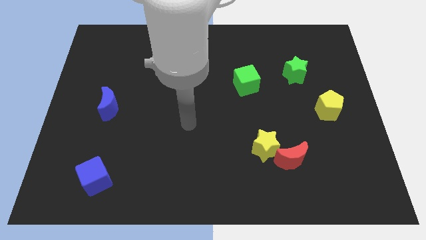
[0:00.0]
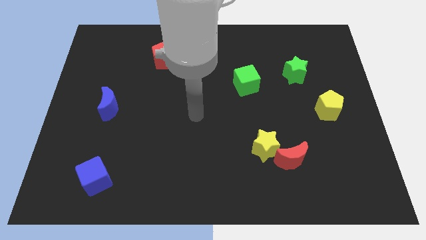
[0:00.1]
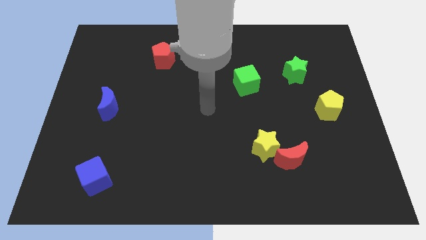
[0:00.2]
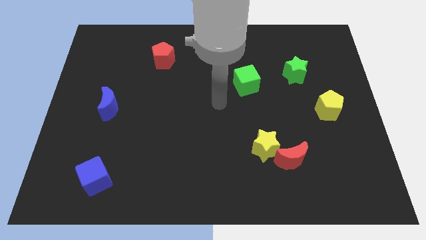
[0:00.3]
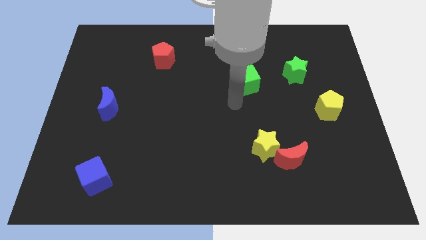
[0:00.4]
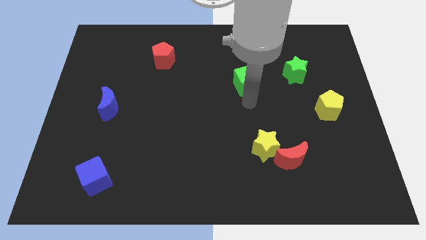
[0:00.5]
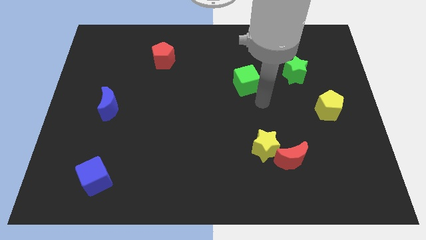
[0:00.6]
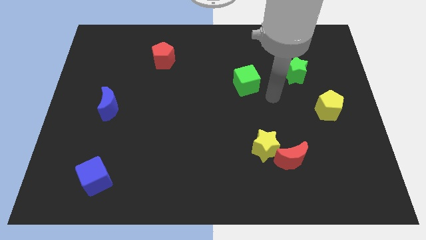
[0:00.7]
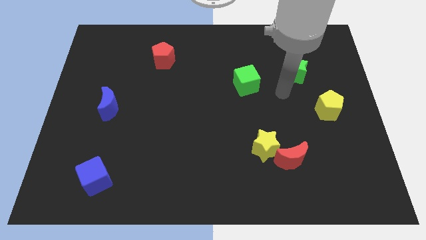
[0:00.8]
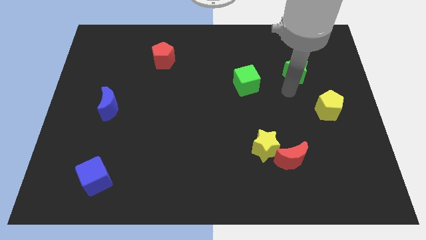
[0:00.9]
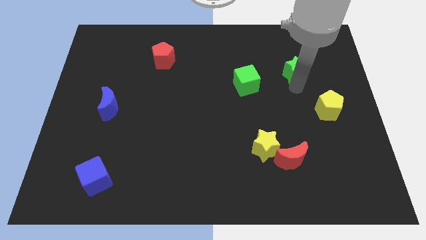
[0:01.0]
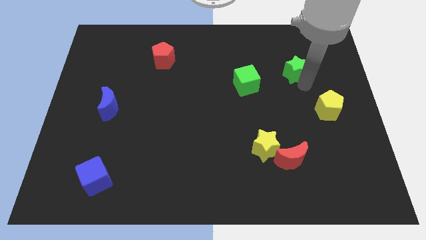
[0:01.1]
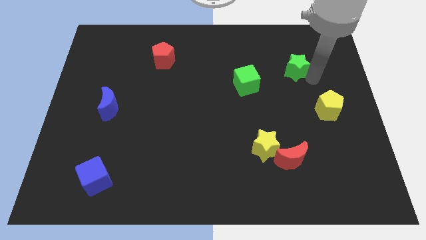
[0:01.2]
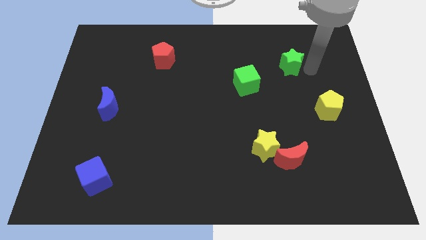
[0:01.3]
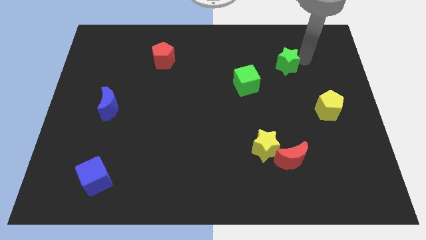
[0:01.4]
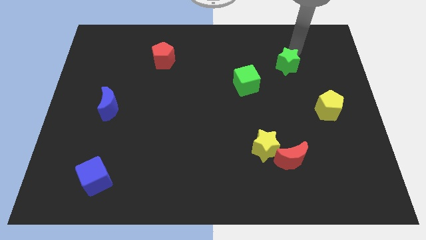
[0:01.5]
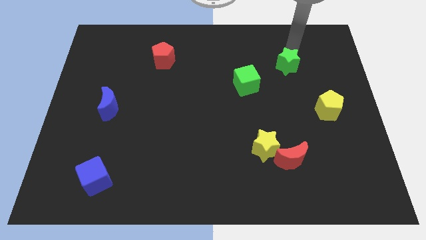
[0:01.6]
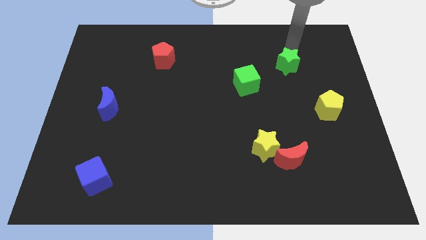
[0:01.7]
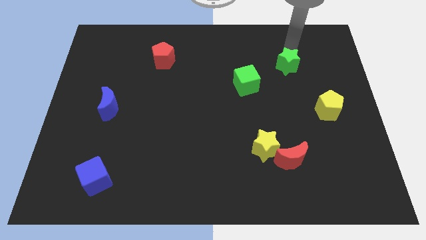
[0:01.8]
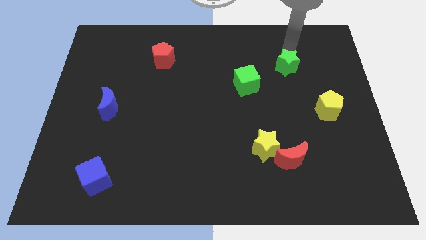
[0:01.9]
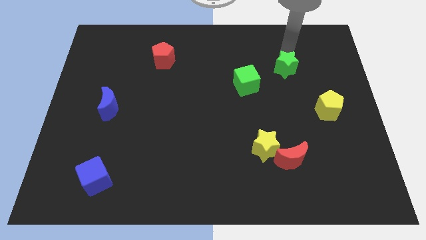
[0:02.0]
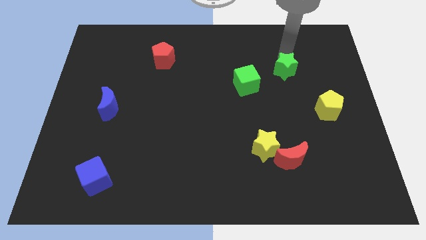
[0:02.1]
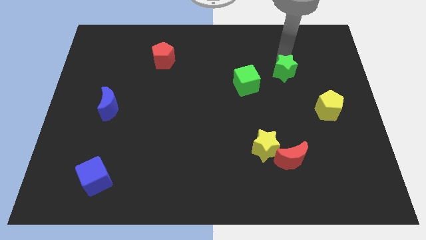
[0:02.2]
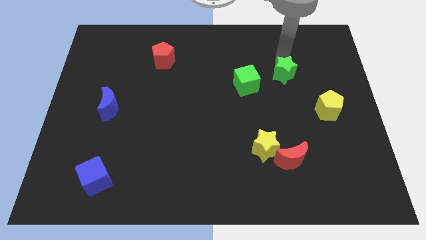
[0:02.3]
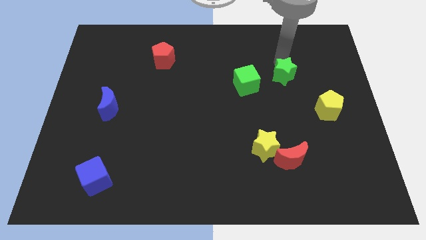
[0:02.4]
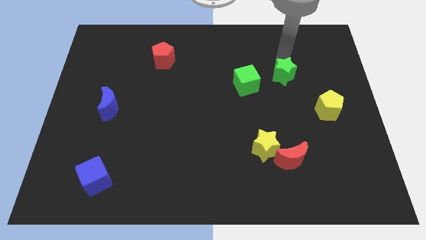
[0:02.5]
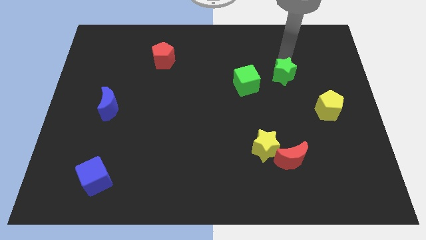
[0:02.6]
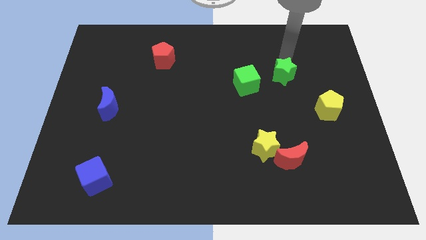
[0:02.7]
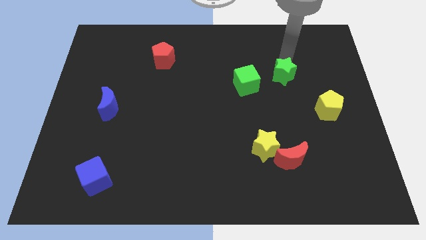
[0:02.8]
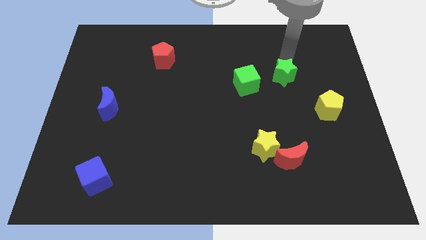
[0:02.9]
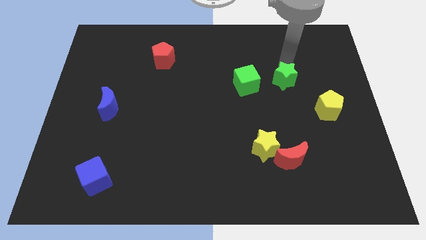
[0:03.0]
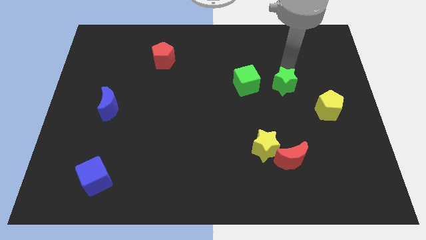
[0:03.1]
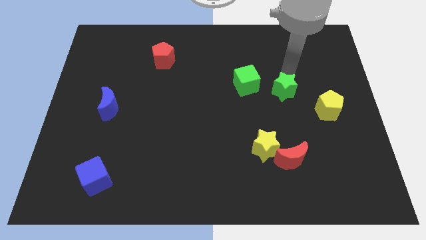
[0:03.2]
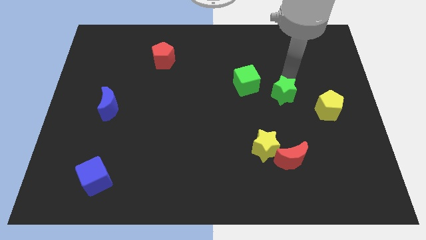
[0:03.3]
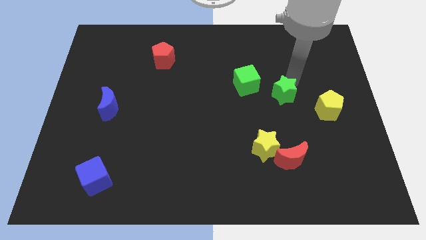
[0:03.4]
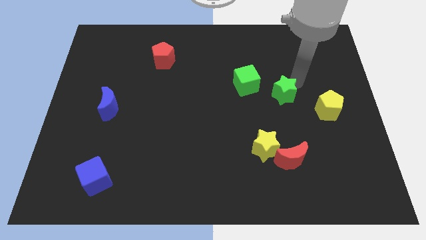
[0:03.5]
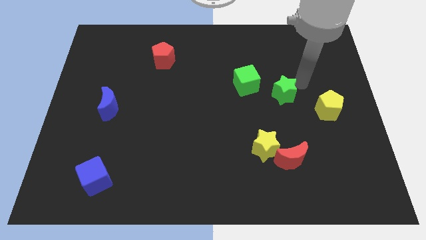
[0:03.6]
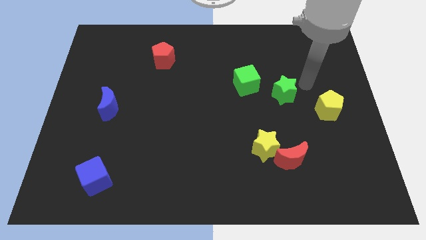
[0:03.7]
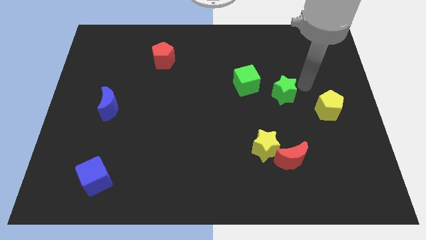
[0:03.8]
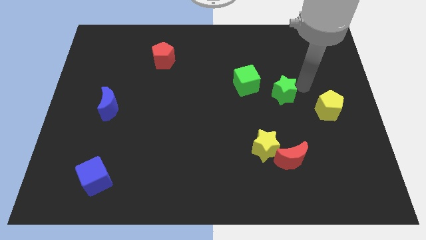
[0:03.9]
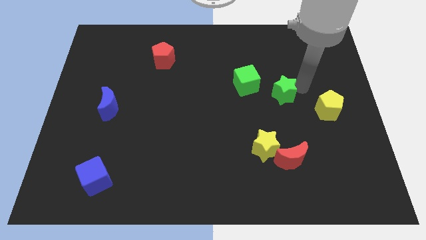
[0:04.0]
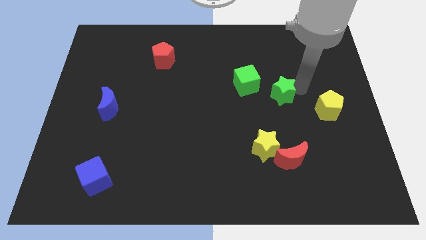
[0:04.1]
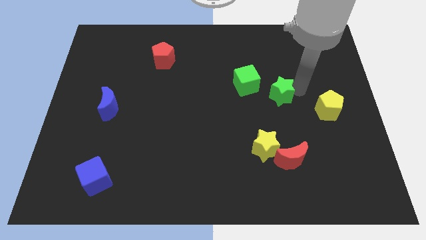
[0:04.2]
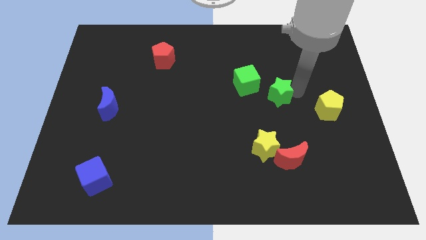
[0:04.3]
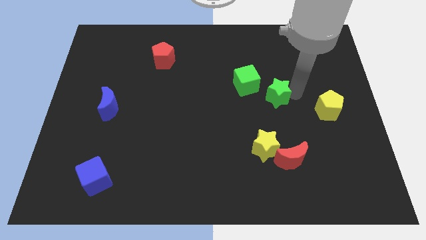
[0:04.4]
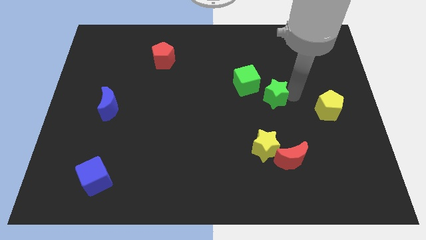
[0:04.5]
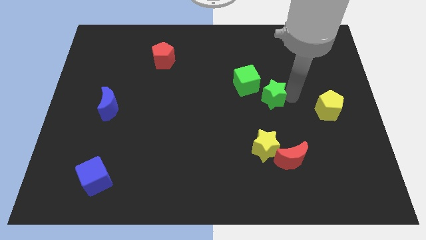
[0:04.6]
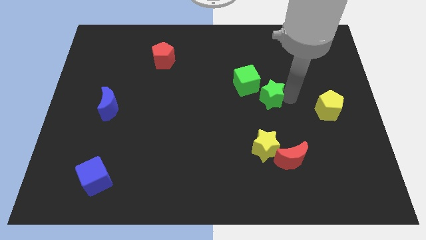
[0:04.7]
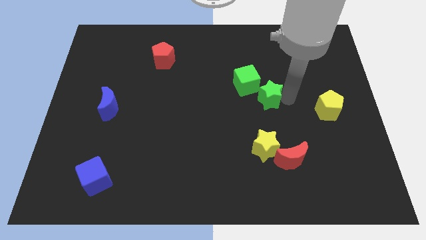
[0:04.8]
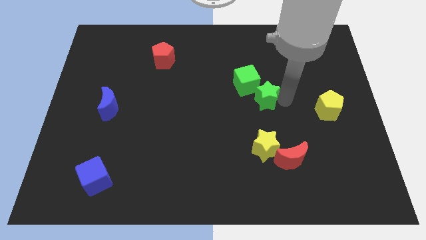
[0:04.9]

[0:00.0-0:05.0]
push the green star to the bottom side of the green cube

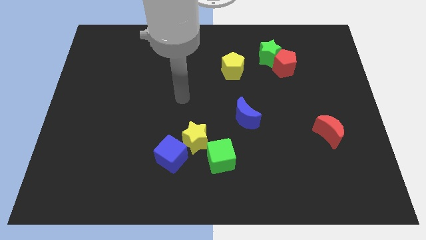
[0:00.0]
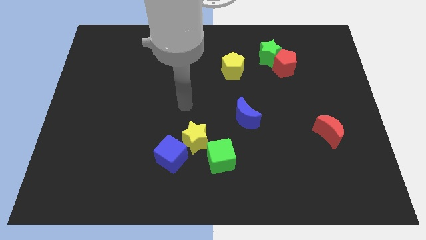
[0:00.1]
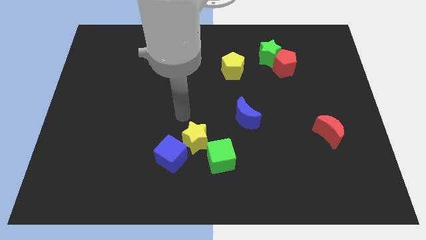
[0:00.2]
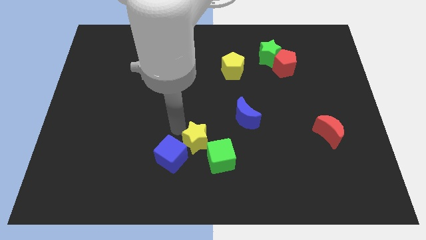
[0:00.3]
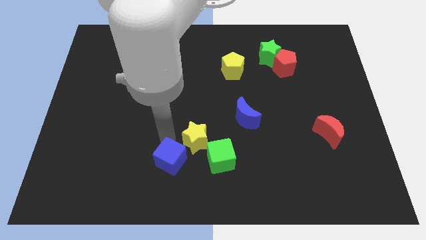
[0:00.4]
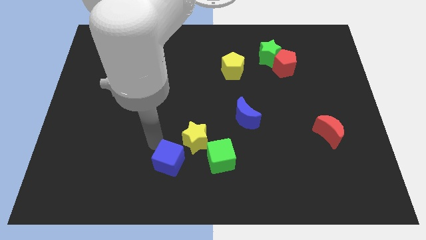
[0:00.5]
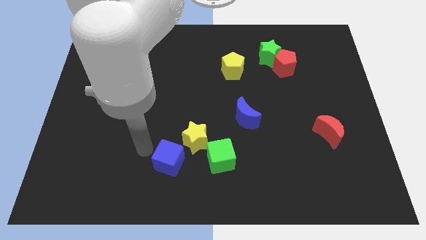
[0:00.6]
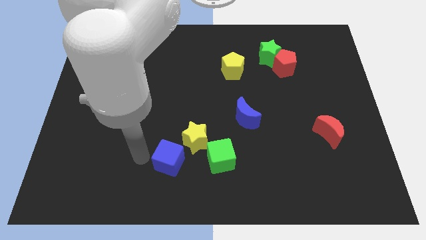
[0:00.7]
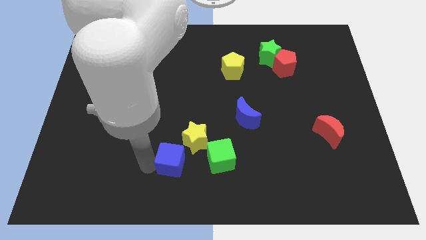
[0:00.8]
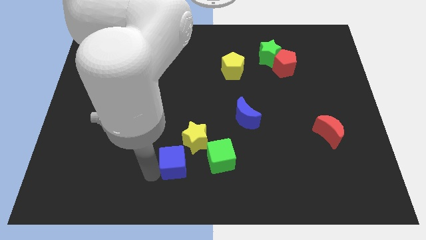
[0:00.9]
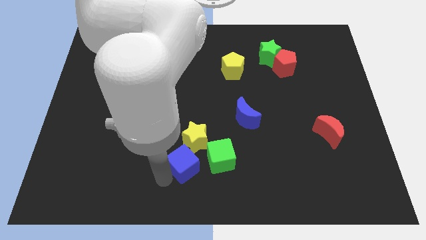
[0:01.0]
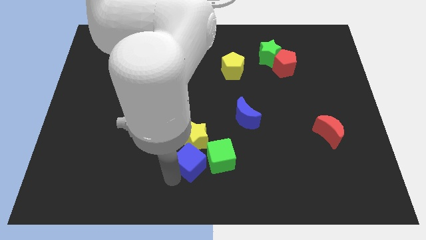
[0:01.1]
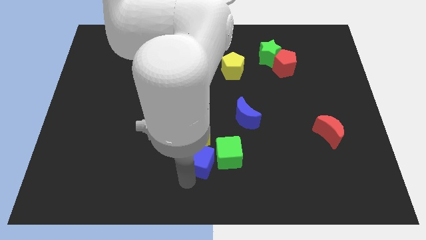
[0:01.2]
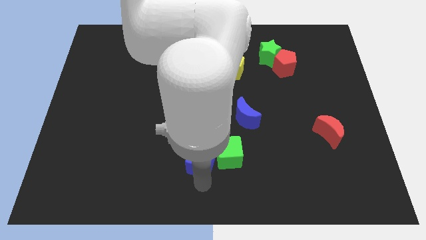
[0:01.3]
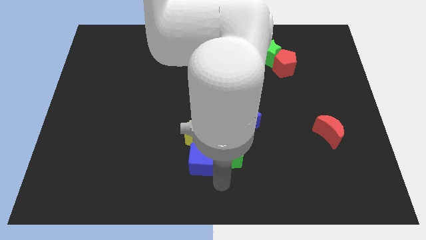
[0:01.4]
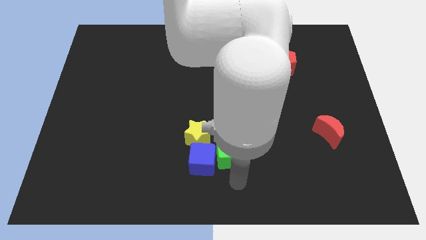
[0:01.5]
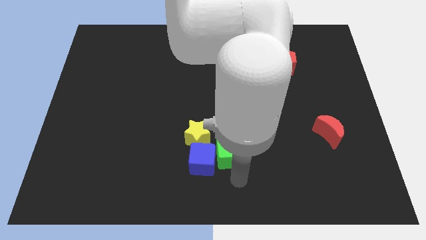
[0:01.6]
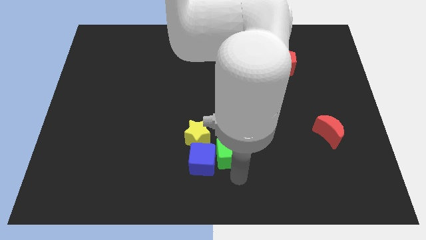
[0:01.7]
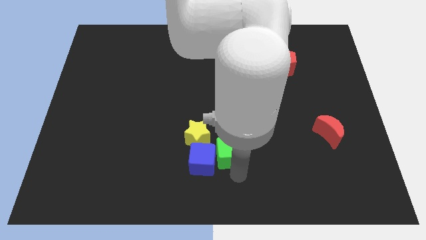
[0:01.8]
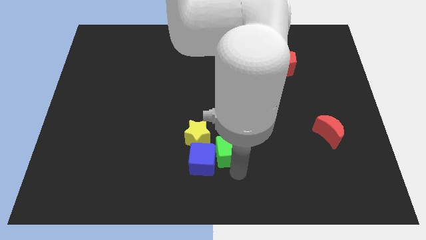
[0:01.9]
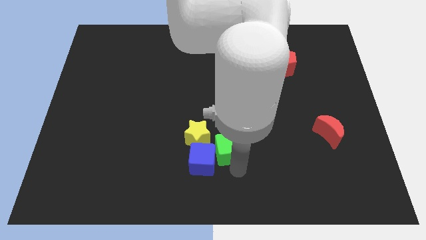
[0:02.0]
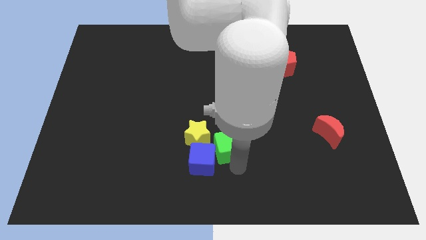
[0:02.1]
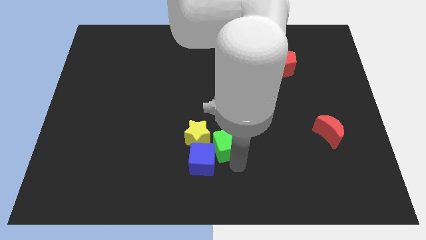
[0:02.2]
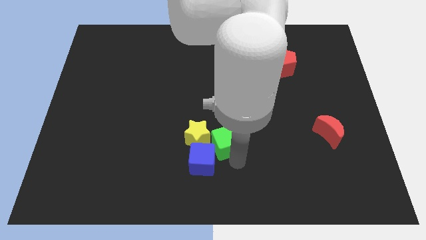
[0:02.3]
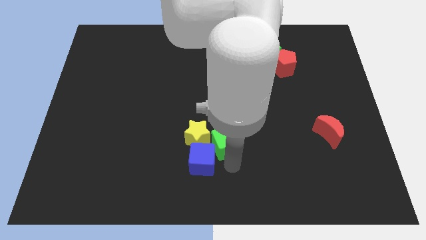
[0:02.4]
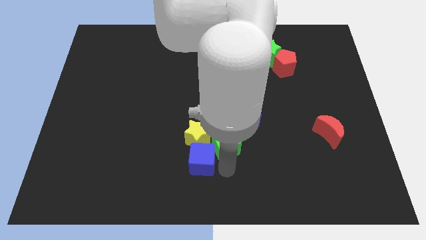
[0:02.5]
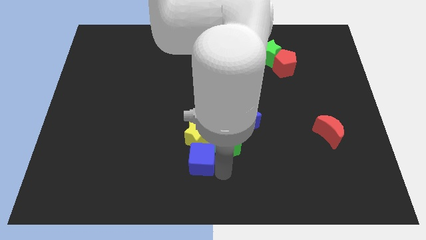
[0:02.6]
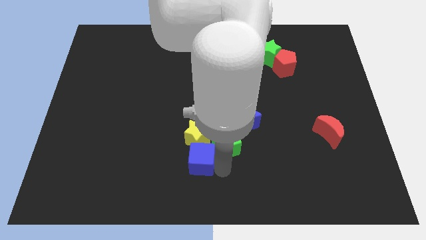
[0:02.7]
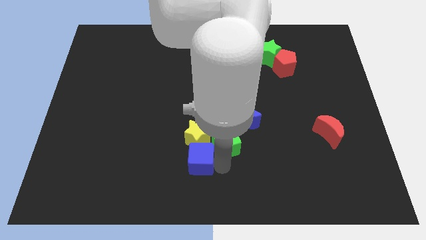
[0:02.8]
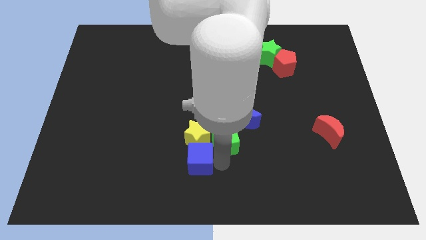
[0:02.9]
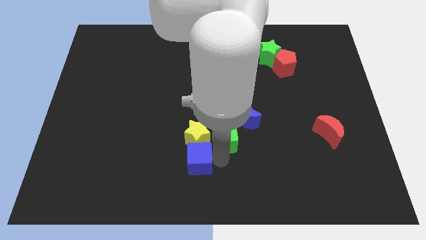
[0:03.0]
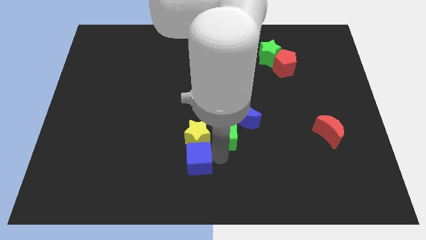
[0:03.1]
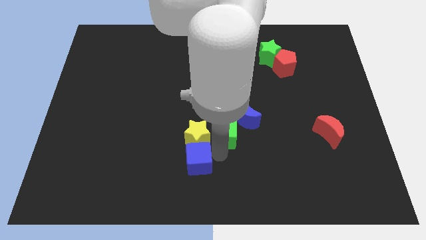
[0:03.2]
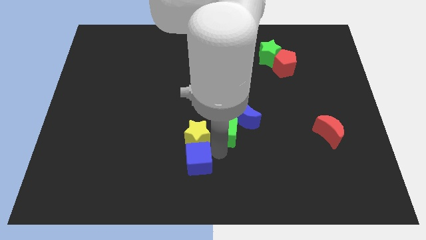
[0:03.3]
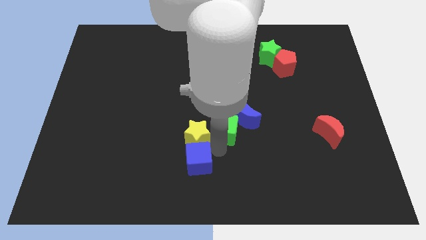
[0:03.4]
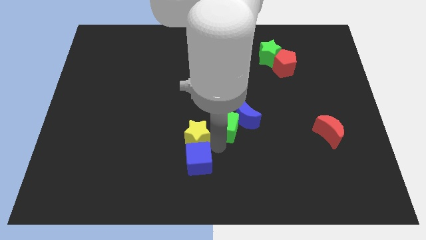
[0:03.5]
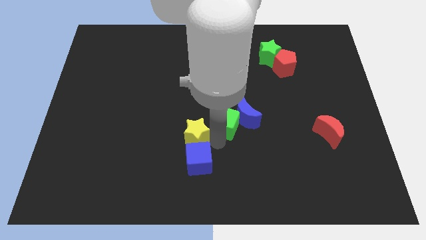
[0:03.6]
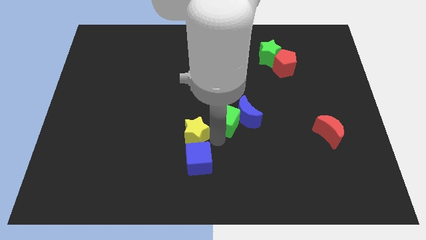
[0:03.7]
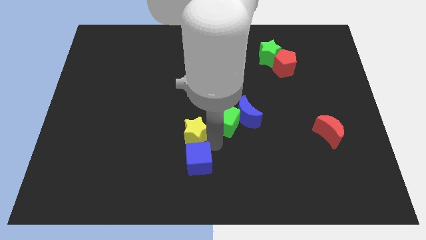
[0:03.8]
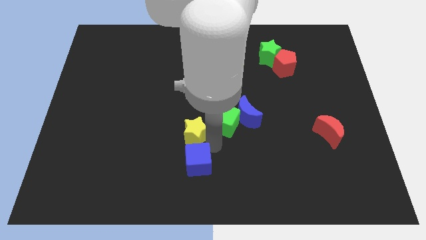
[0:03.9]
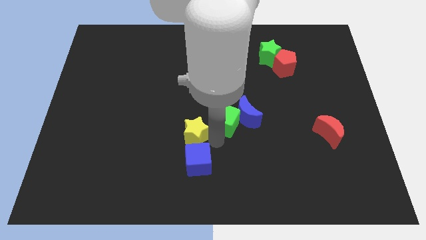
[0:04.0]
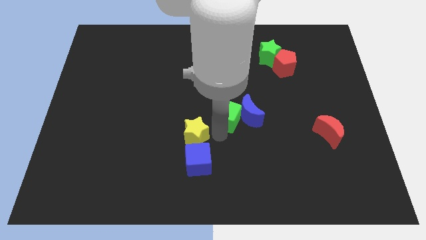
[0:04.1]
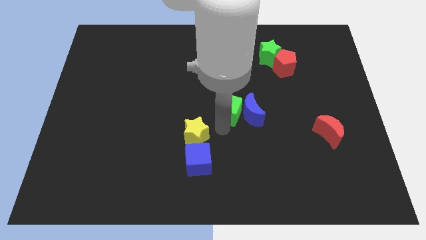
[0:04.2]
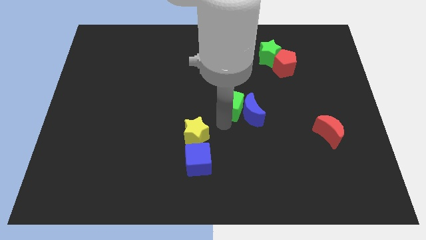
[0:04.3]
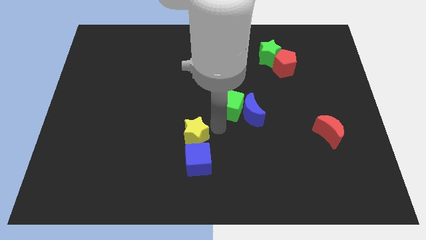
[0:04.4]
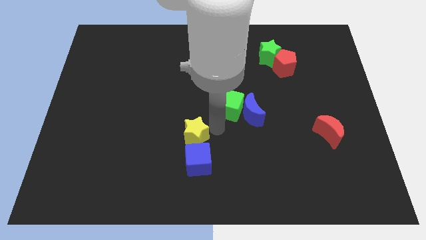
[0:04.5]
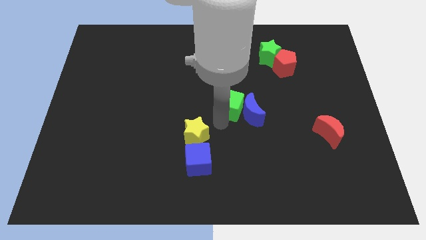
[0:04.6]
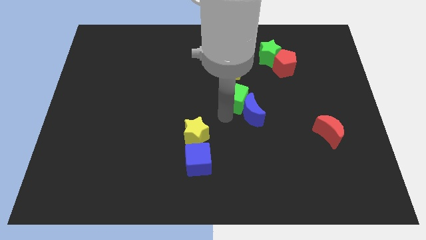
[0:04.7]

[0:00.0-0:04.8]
put the green cube to the top side of the blue moon
